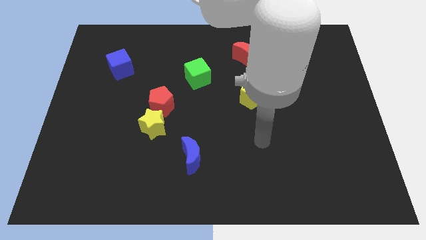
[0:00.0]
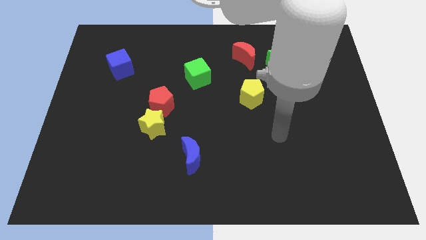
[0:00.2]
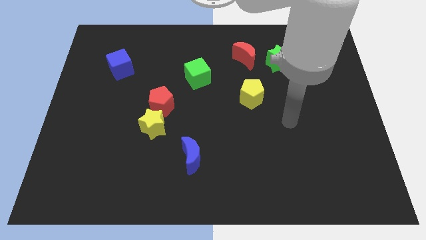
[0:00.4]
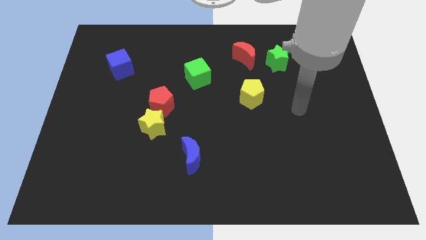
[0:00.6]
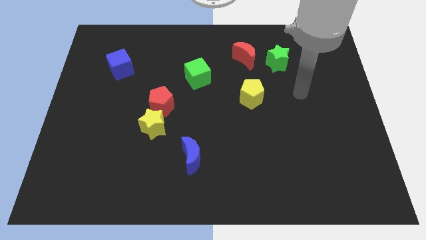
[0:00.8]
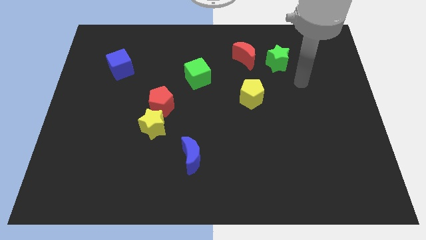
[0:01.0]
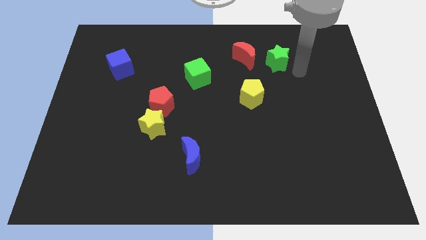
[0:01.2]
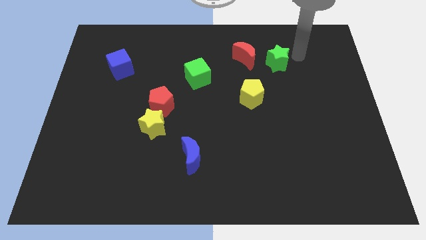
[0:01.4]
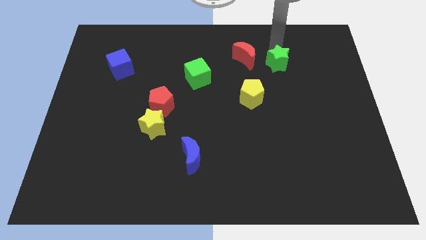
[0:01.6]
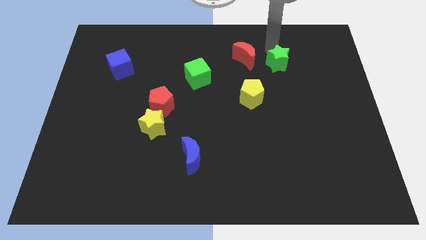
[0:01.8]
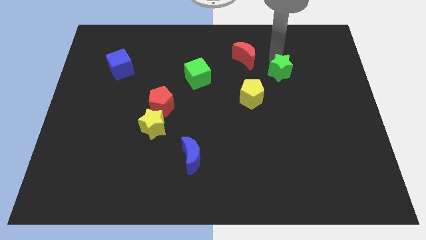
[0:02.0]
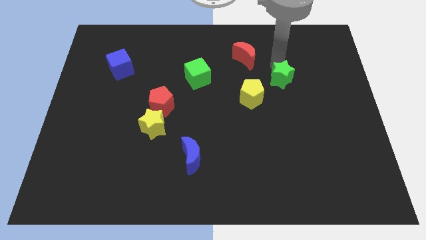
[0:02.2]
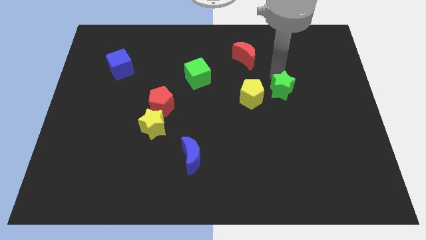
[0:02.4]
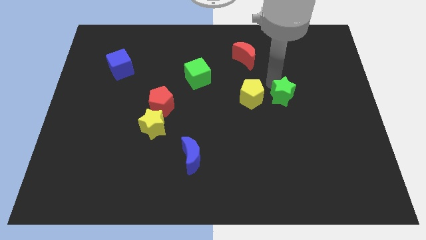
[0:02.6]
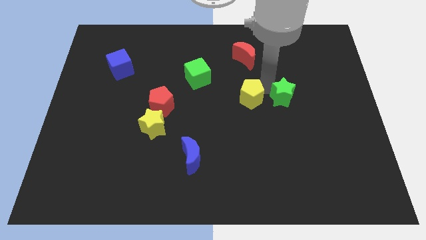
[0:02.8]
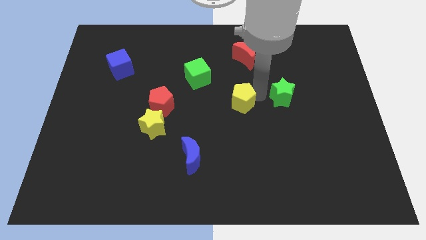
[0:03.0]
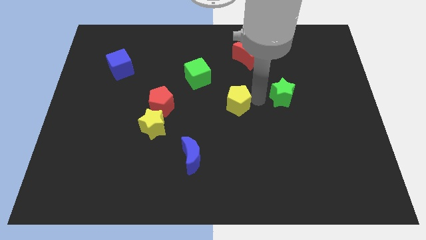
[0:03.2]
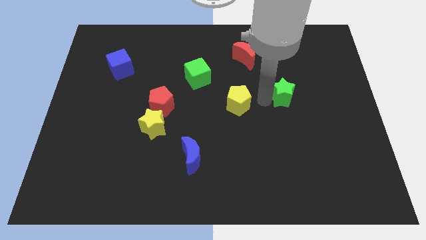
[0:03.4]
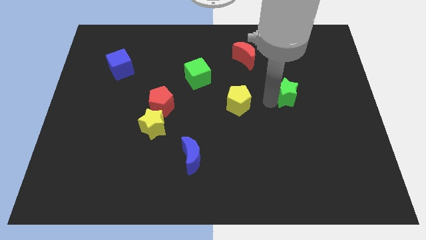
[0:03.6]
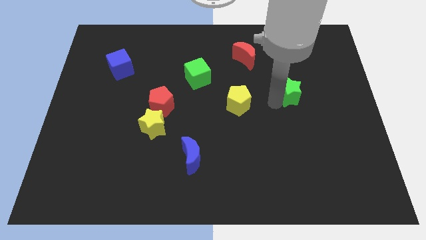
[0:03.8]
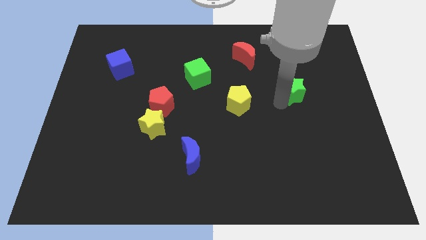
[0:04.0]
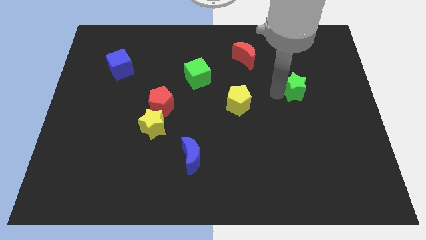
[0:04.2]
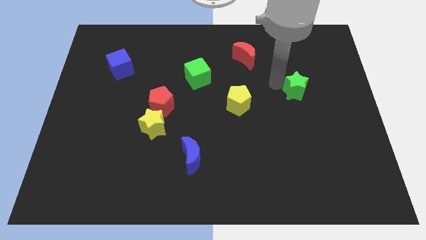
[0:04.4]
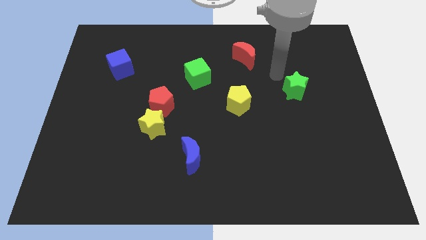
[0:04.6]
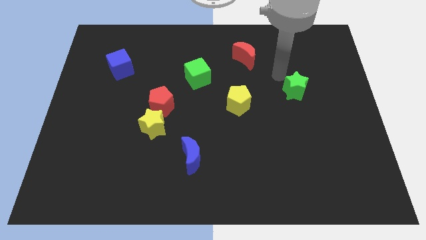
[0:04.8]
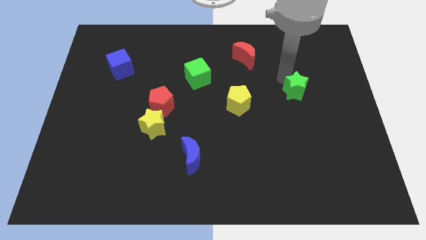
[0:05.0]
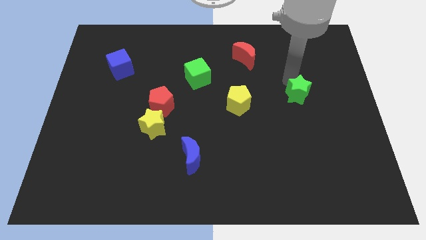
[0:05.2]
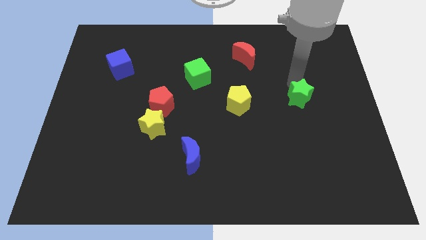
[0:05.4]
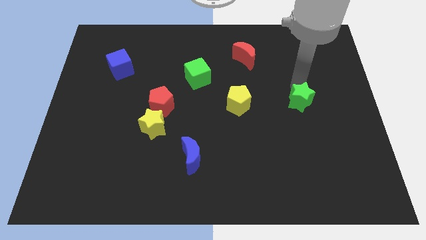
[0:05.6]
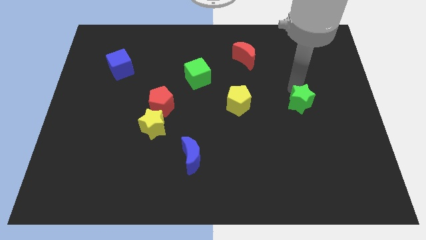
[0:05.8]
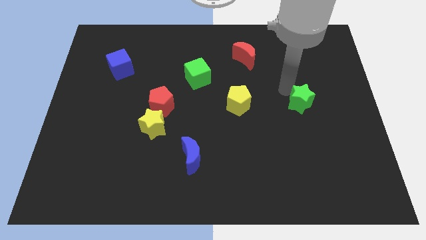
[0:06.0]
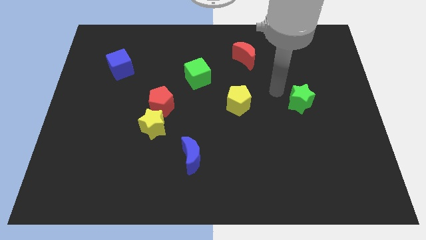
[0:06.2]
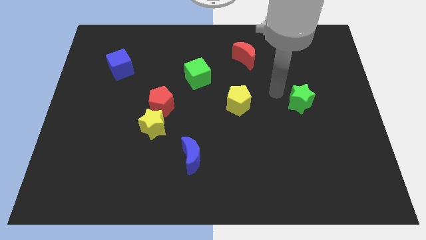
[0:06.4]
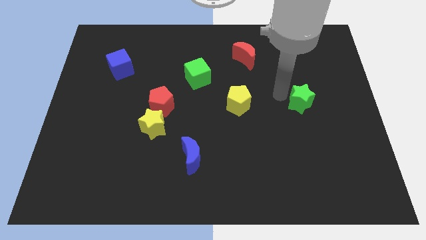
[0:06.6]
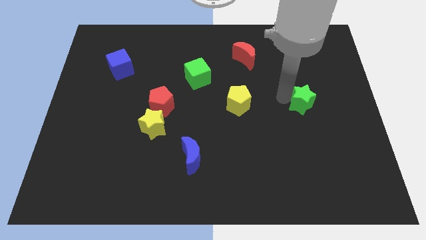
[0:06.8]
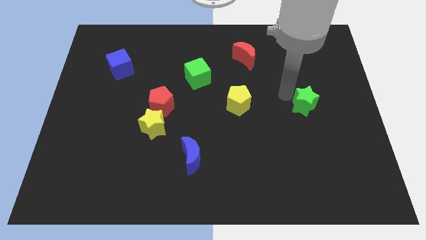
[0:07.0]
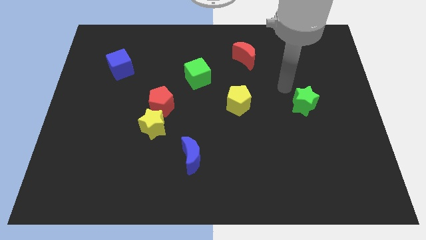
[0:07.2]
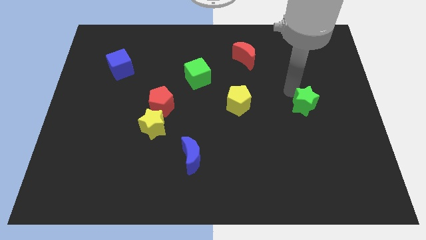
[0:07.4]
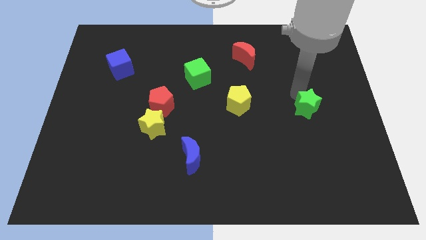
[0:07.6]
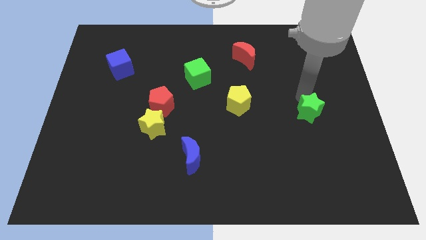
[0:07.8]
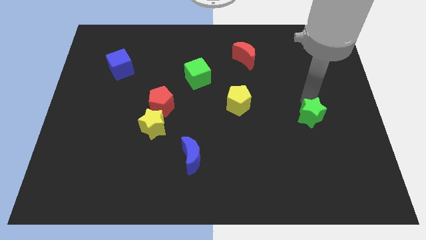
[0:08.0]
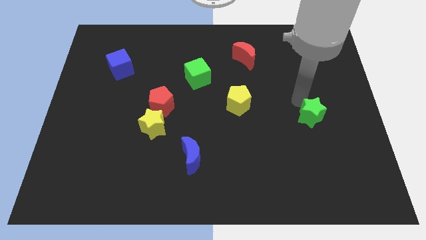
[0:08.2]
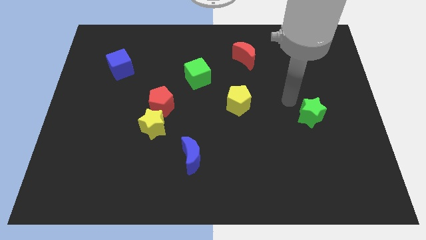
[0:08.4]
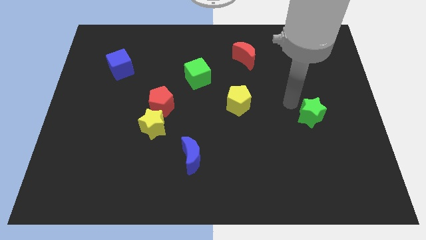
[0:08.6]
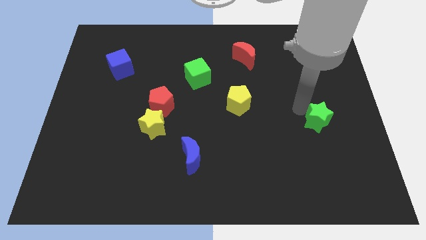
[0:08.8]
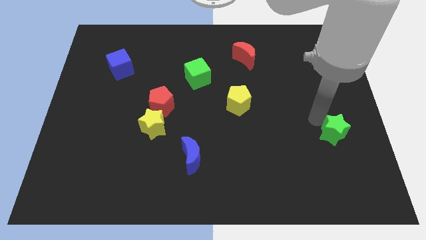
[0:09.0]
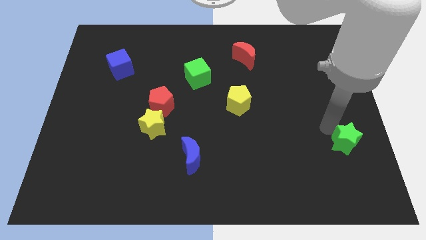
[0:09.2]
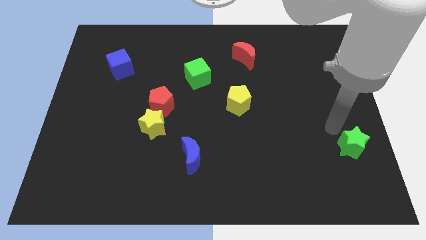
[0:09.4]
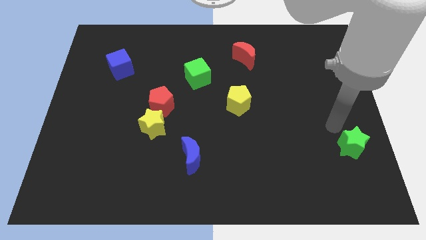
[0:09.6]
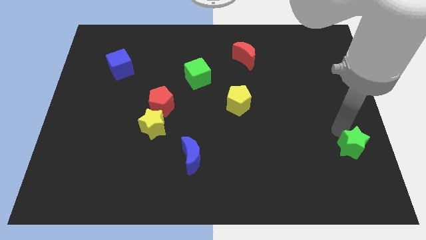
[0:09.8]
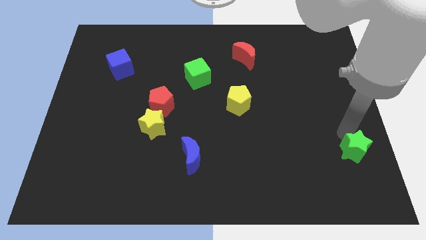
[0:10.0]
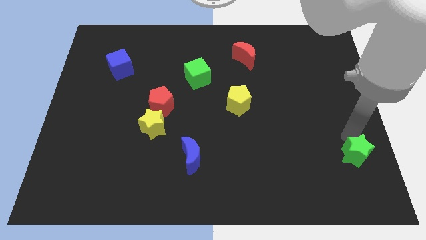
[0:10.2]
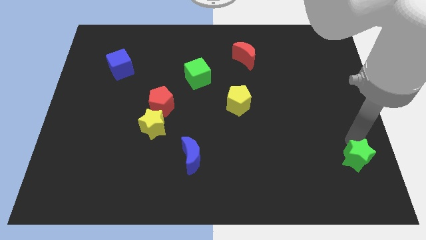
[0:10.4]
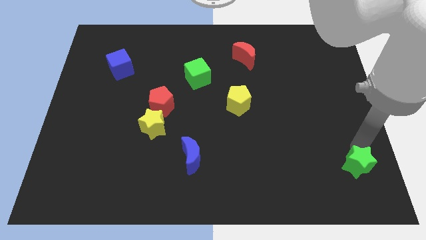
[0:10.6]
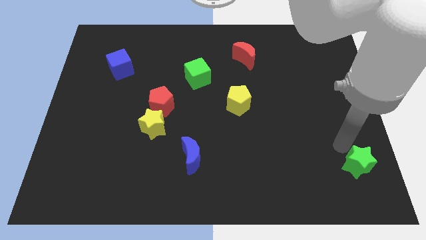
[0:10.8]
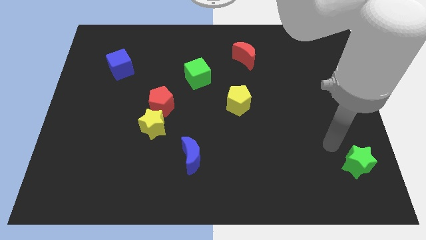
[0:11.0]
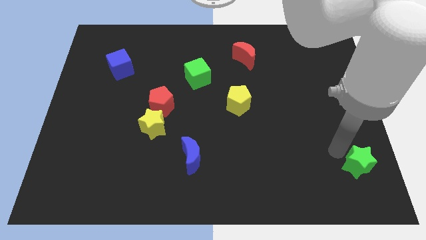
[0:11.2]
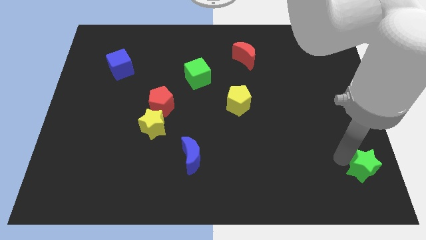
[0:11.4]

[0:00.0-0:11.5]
move the green star to the bottom right

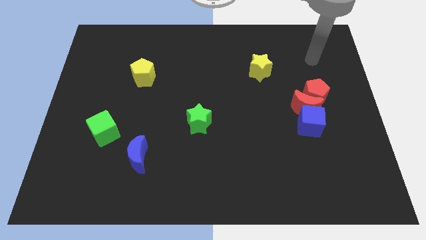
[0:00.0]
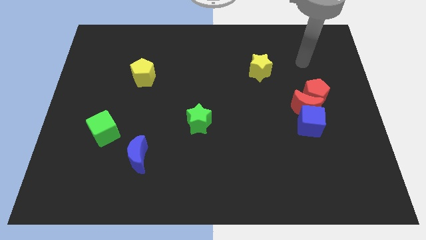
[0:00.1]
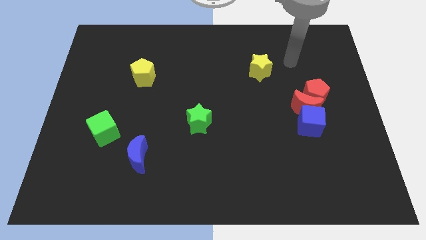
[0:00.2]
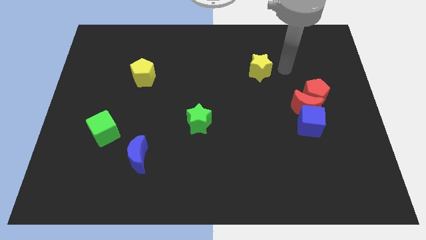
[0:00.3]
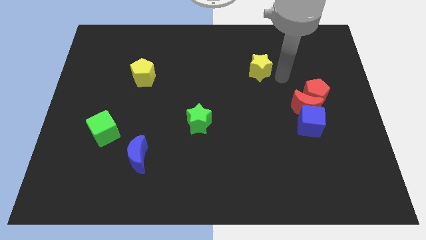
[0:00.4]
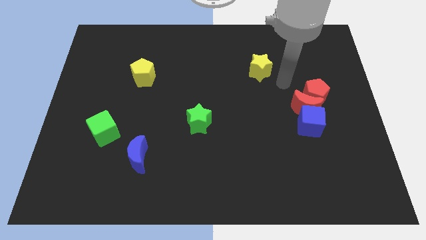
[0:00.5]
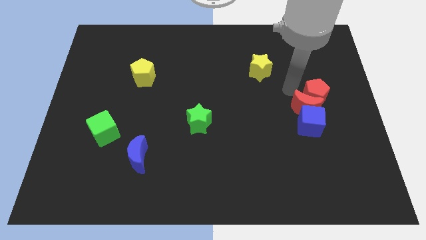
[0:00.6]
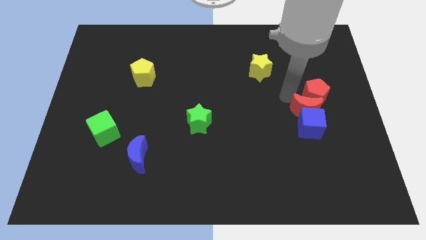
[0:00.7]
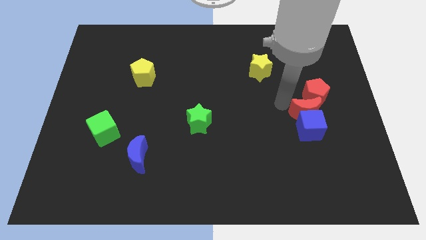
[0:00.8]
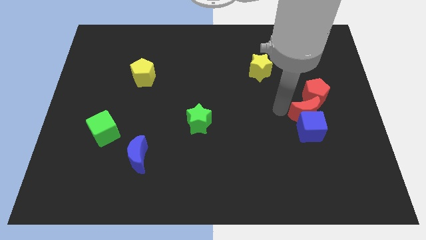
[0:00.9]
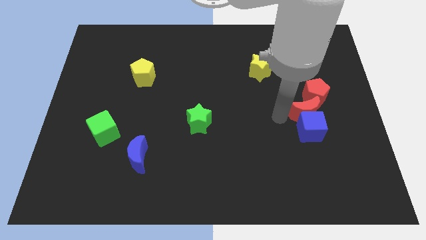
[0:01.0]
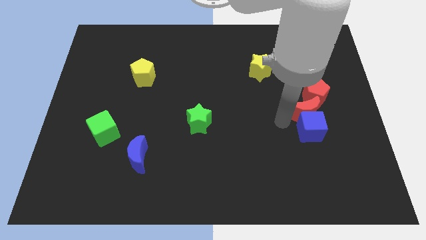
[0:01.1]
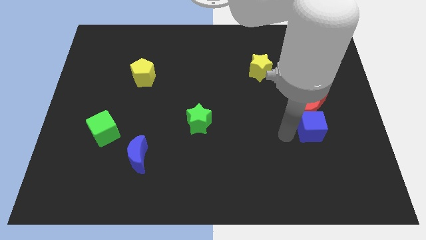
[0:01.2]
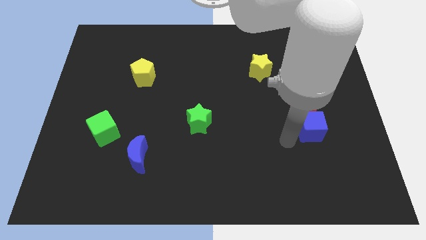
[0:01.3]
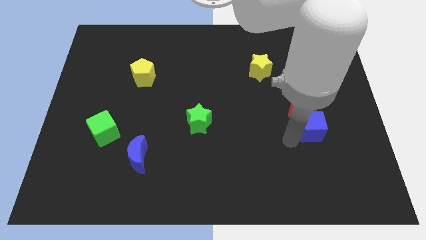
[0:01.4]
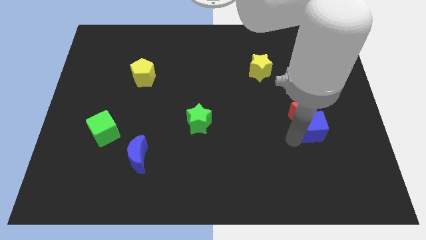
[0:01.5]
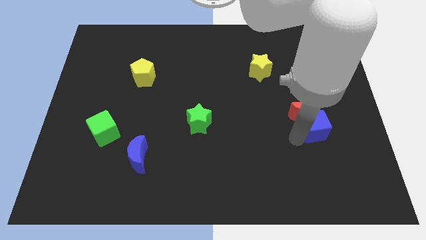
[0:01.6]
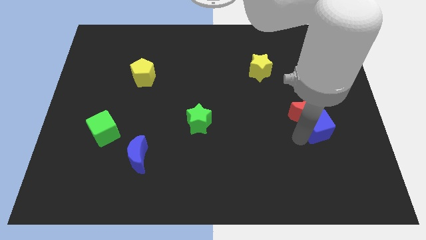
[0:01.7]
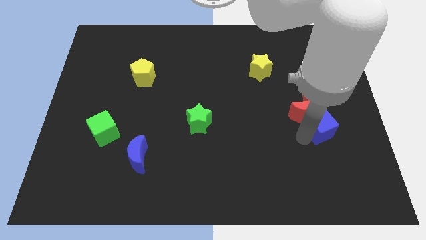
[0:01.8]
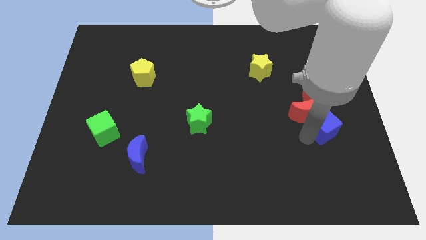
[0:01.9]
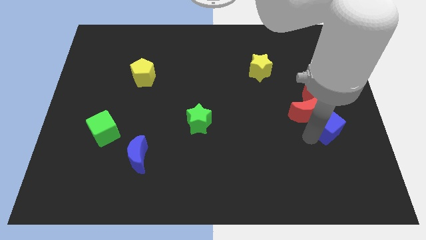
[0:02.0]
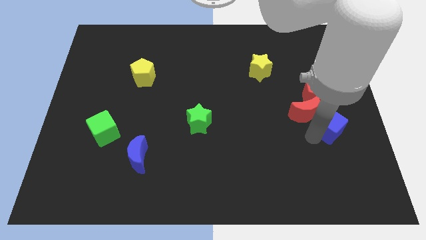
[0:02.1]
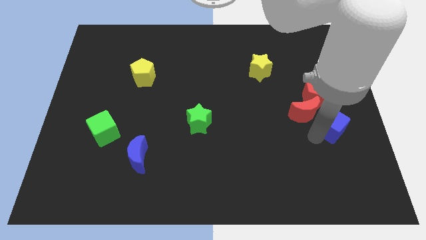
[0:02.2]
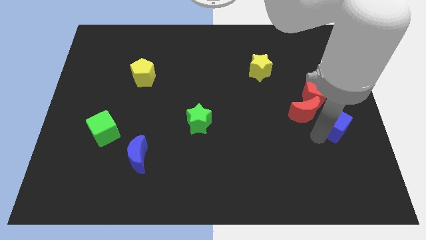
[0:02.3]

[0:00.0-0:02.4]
move the blue cube to the right side of the board

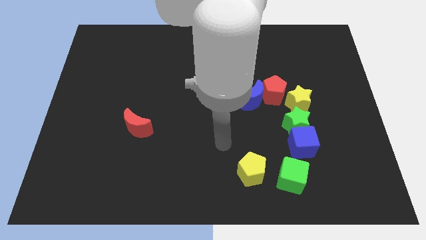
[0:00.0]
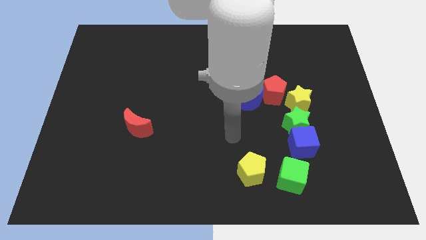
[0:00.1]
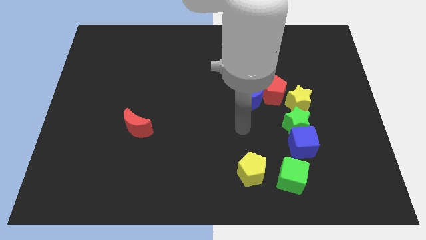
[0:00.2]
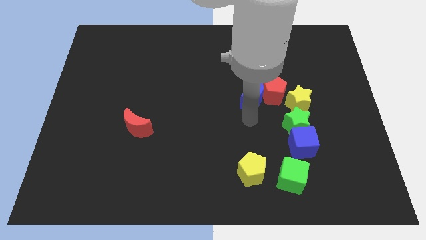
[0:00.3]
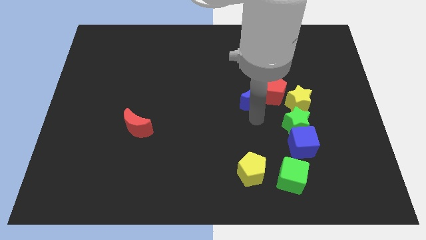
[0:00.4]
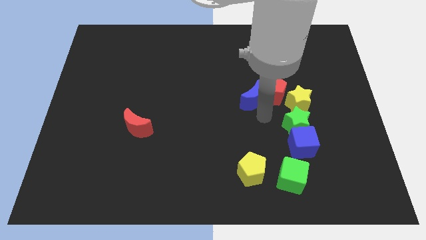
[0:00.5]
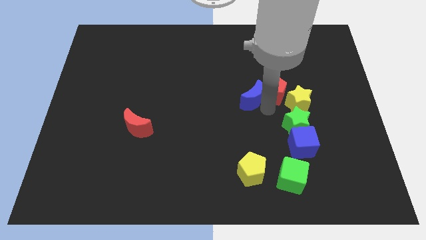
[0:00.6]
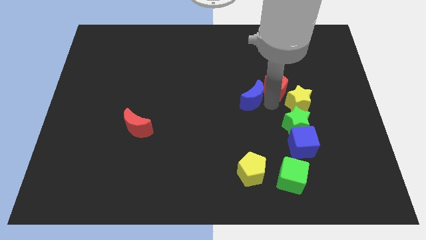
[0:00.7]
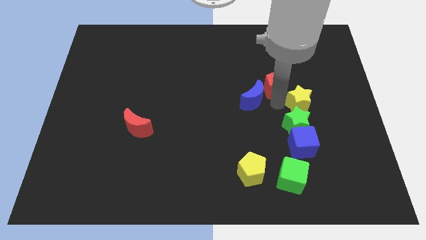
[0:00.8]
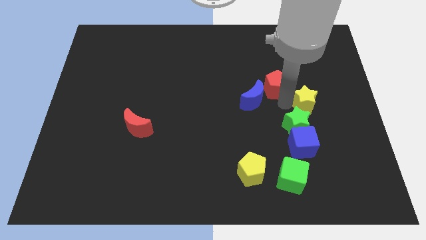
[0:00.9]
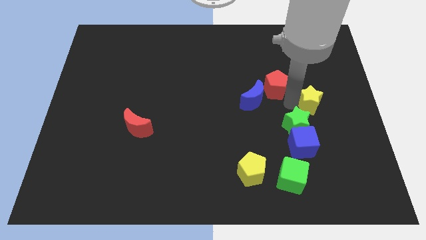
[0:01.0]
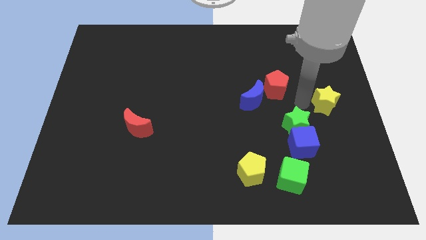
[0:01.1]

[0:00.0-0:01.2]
push the yellow star to the right side
